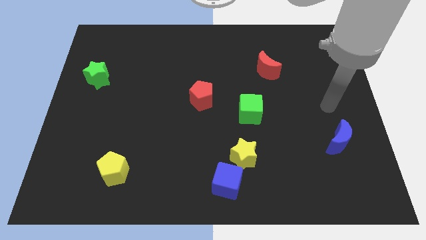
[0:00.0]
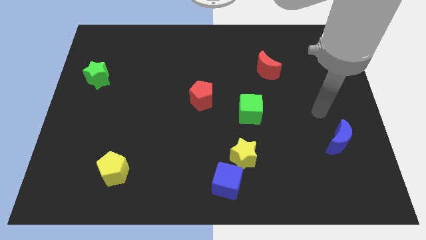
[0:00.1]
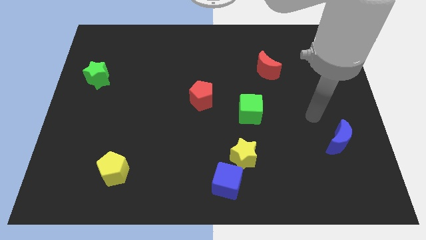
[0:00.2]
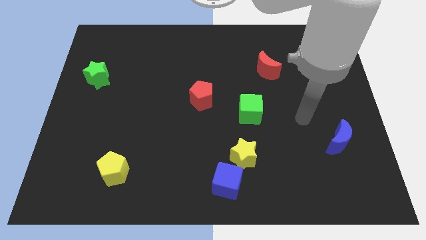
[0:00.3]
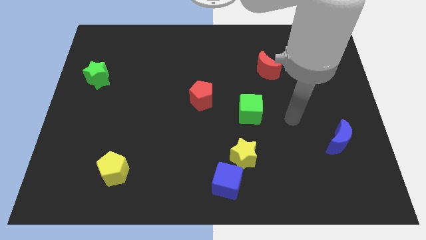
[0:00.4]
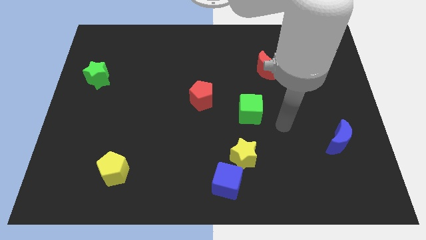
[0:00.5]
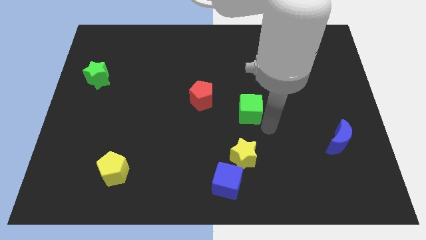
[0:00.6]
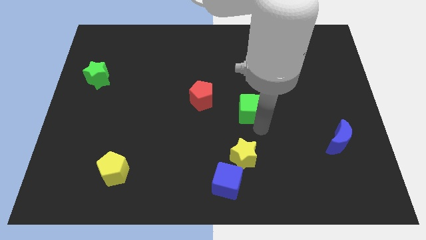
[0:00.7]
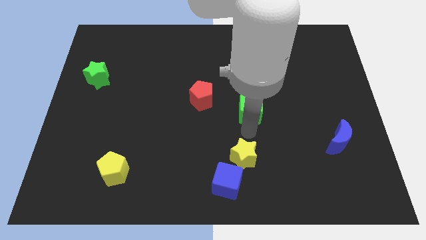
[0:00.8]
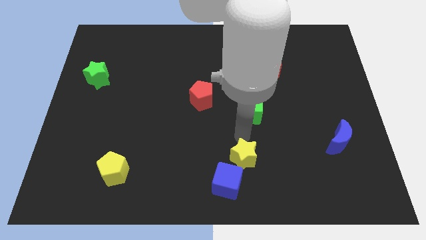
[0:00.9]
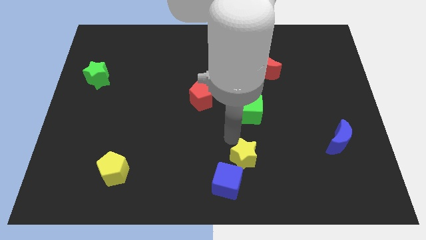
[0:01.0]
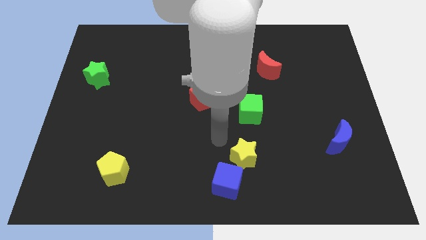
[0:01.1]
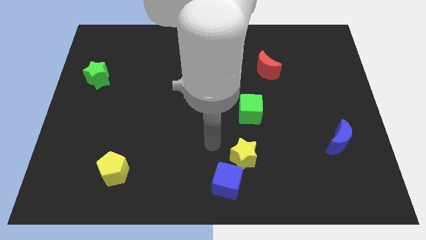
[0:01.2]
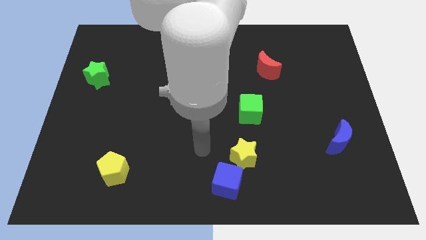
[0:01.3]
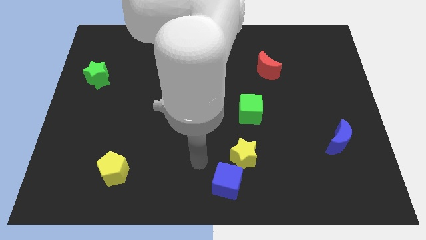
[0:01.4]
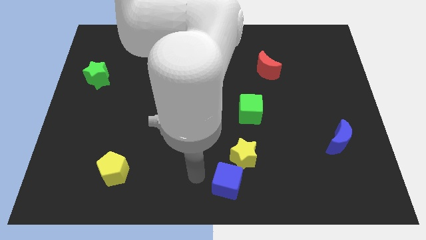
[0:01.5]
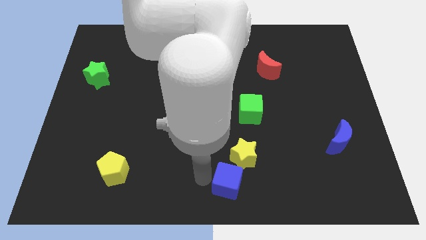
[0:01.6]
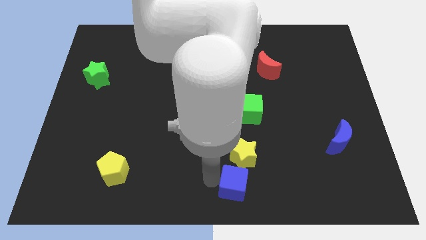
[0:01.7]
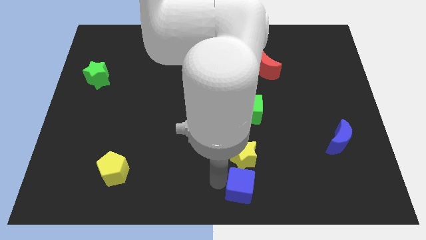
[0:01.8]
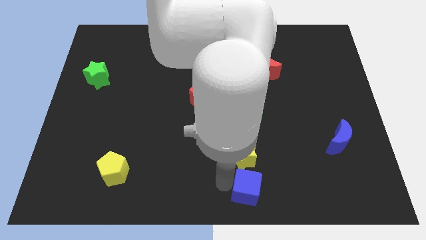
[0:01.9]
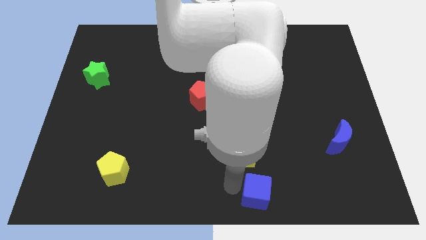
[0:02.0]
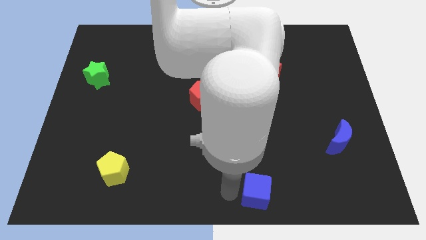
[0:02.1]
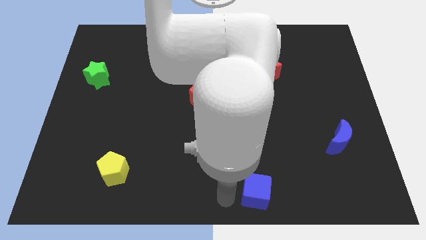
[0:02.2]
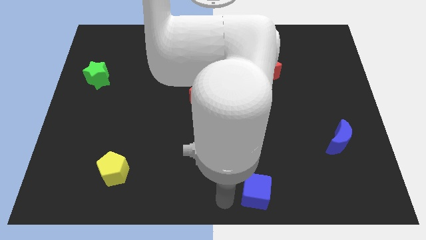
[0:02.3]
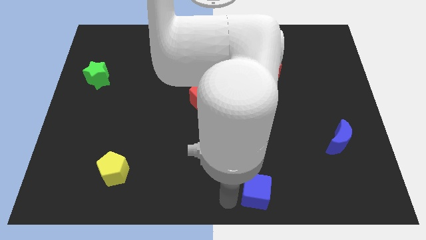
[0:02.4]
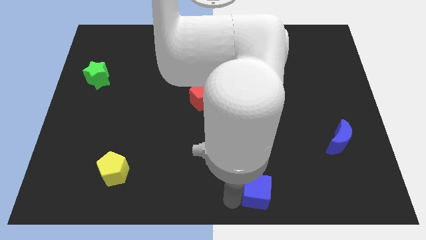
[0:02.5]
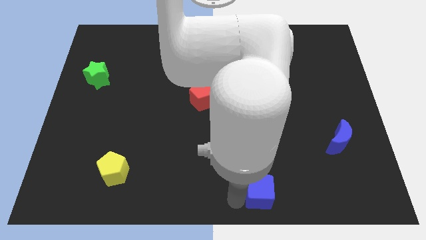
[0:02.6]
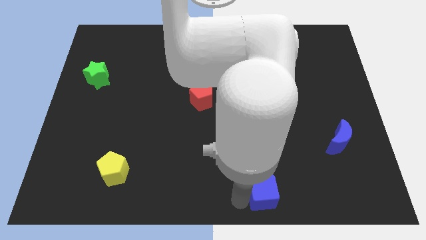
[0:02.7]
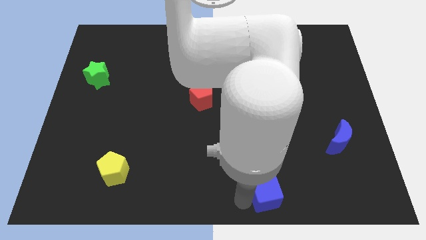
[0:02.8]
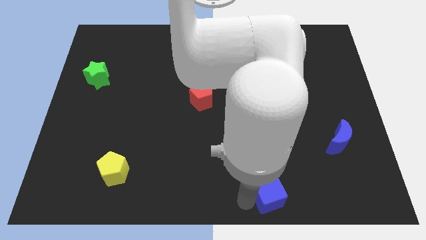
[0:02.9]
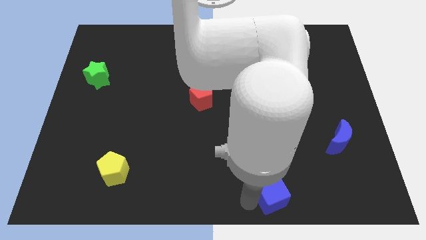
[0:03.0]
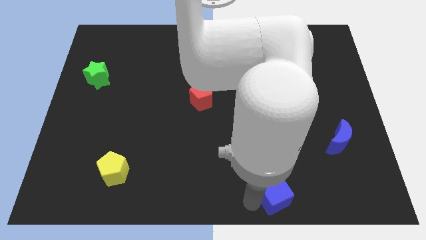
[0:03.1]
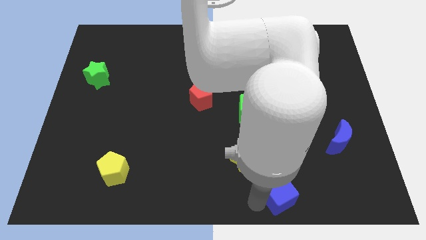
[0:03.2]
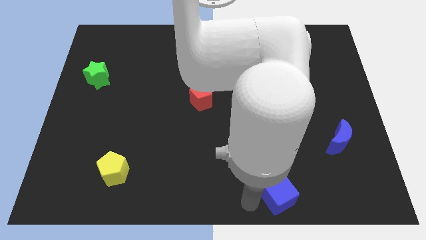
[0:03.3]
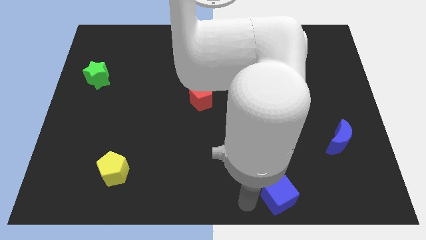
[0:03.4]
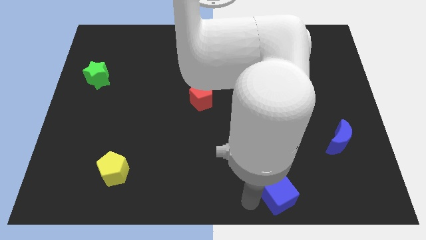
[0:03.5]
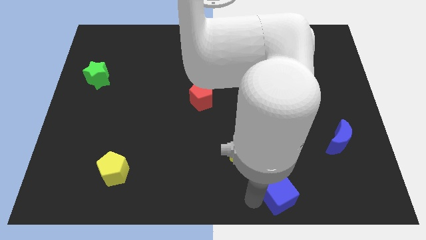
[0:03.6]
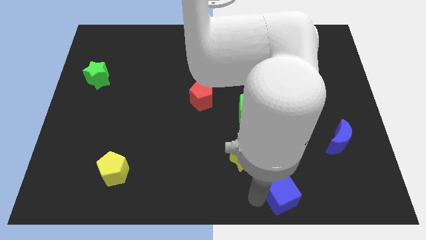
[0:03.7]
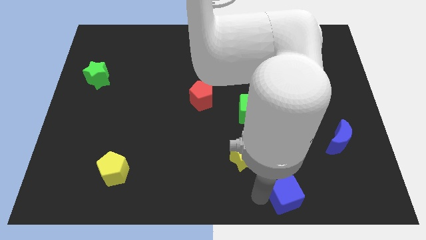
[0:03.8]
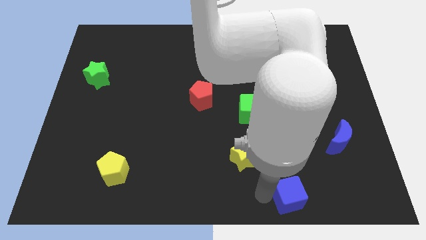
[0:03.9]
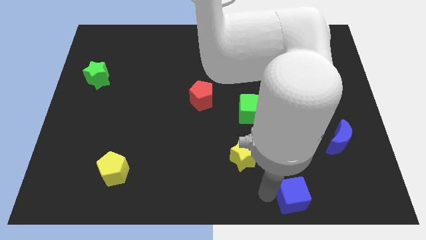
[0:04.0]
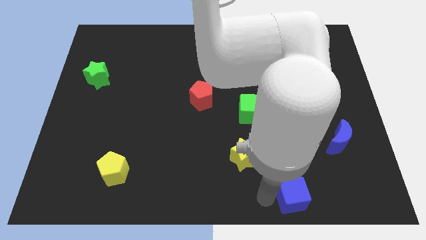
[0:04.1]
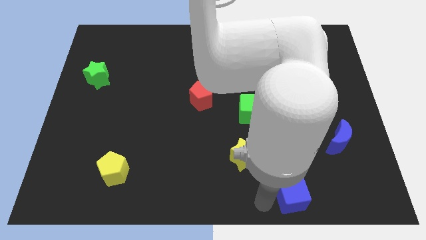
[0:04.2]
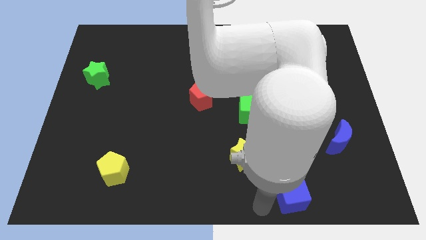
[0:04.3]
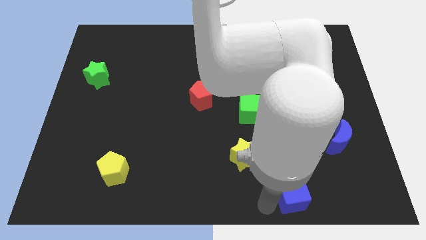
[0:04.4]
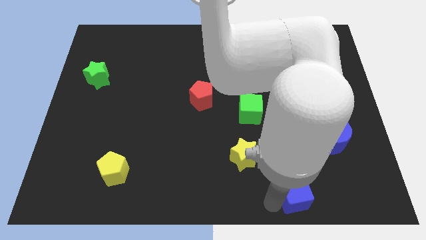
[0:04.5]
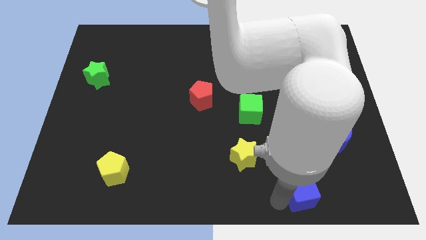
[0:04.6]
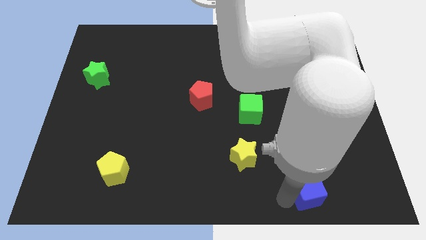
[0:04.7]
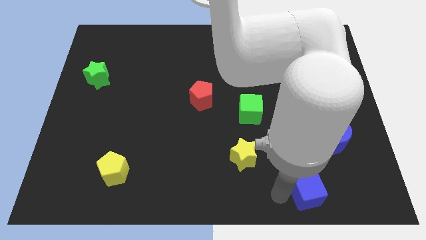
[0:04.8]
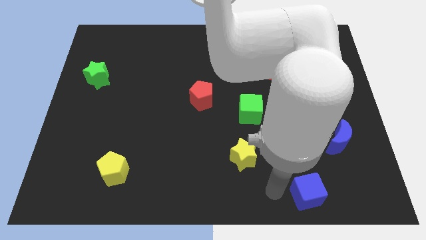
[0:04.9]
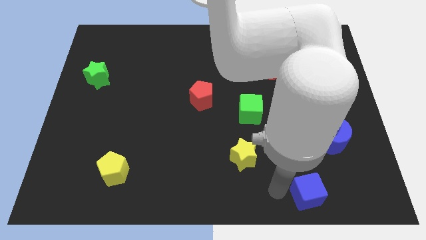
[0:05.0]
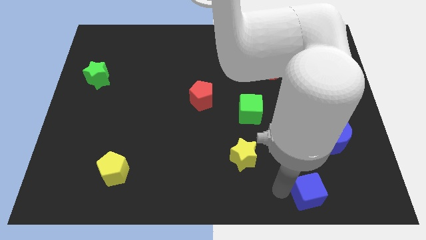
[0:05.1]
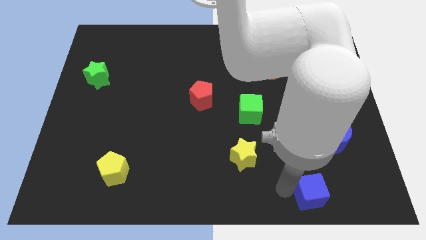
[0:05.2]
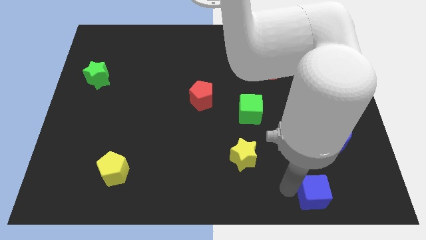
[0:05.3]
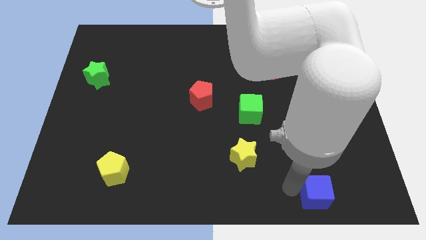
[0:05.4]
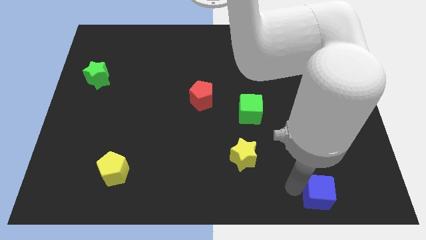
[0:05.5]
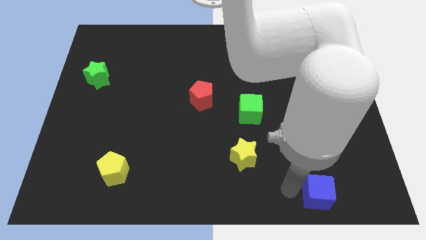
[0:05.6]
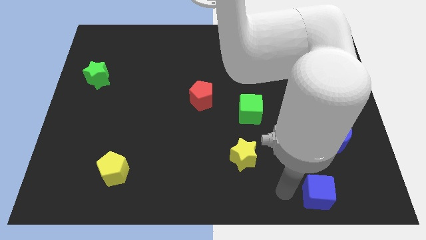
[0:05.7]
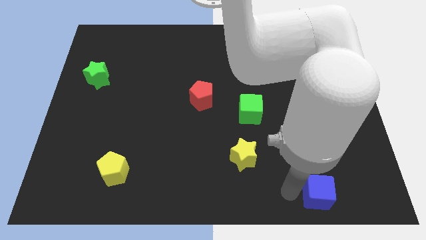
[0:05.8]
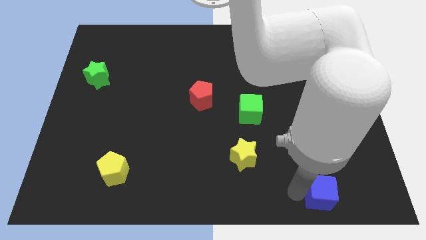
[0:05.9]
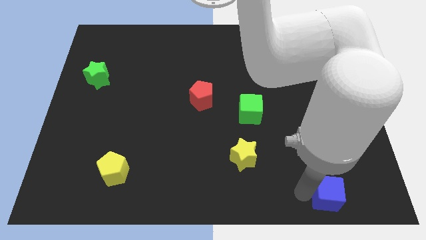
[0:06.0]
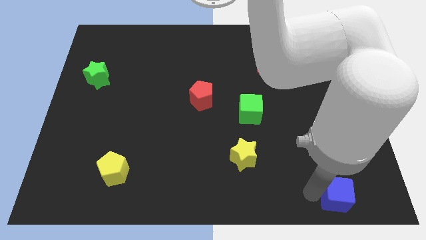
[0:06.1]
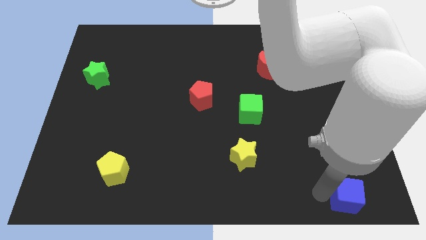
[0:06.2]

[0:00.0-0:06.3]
slide the blue cube to the bottom right

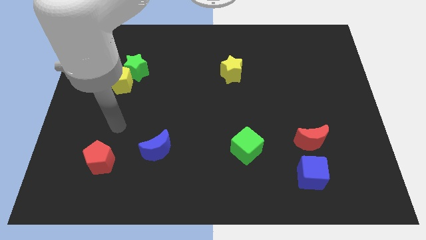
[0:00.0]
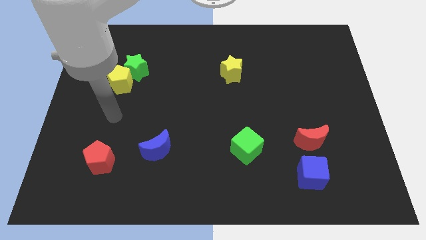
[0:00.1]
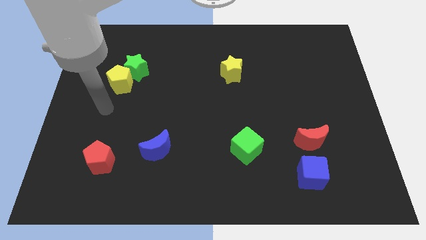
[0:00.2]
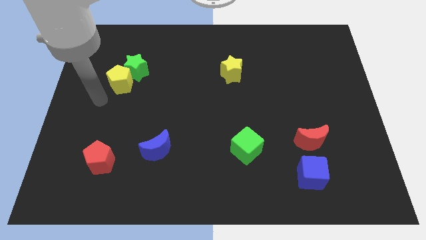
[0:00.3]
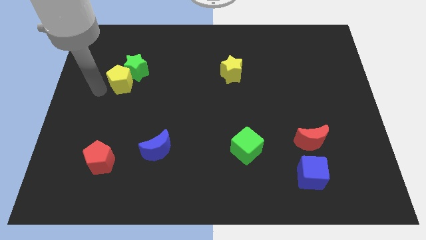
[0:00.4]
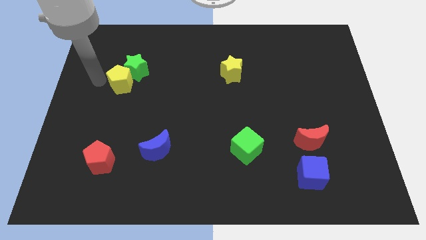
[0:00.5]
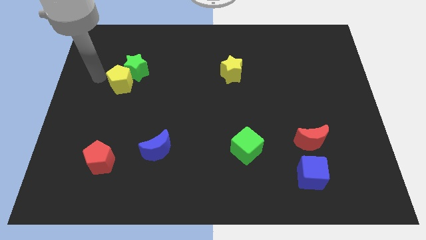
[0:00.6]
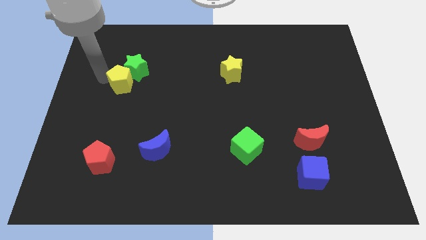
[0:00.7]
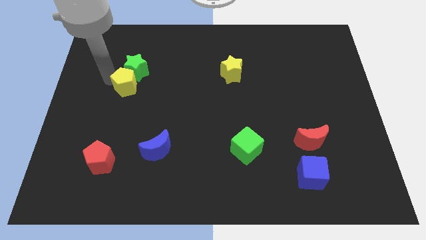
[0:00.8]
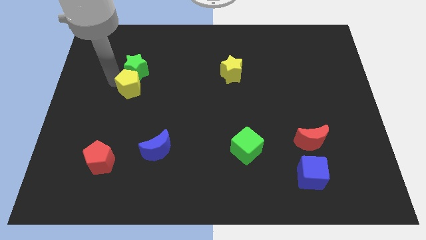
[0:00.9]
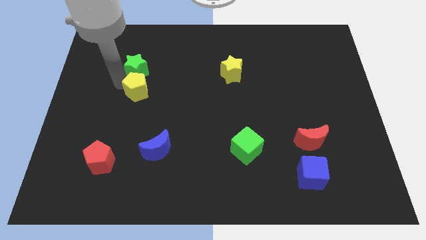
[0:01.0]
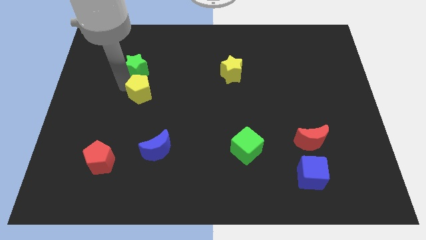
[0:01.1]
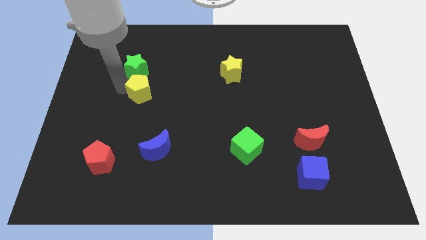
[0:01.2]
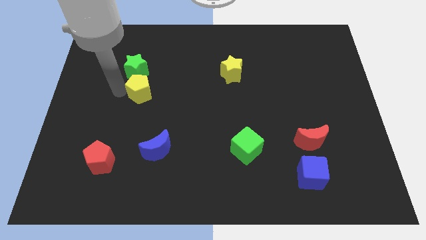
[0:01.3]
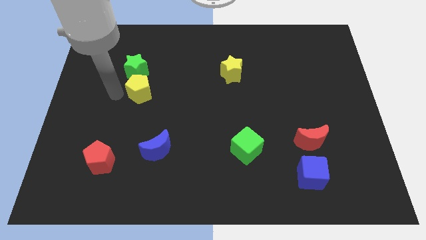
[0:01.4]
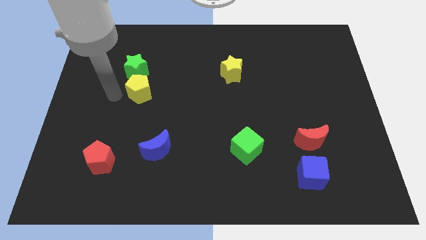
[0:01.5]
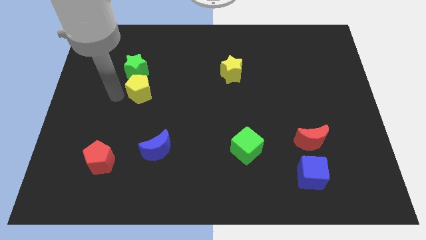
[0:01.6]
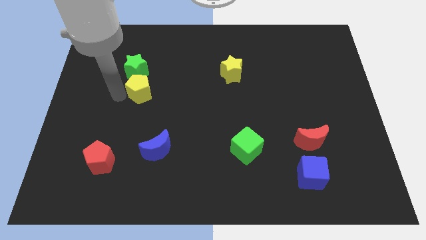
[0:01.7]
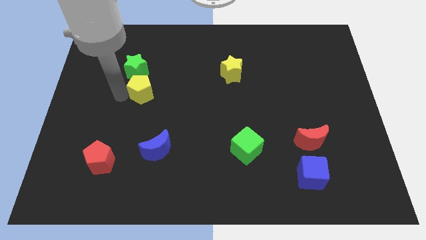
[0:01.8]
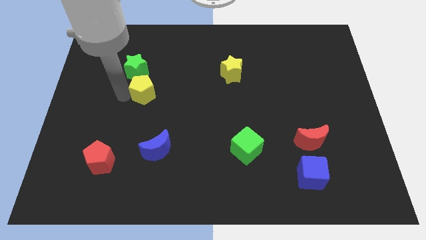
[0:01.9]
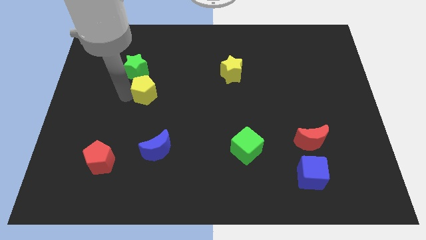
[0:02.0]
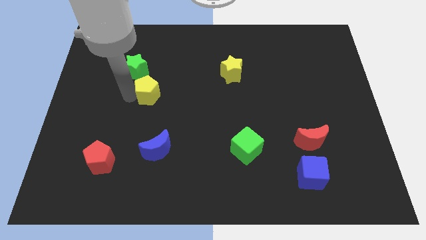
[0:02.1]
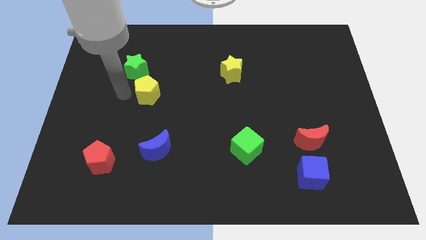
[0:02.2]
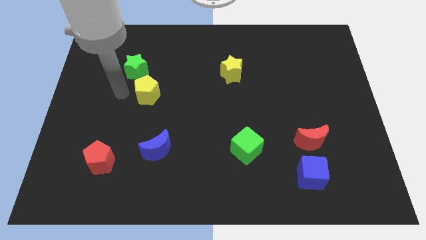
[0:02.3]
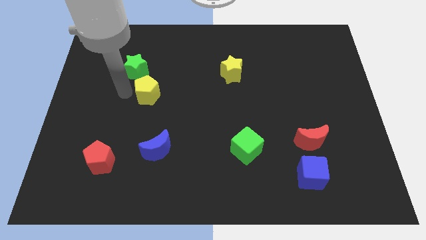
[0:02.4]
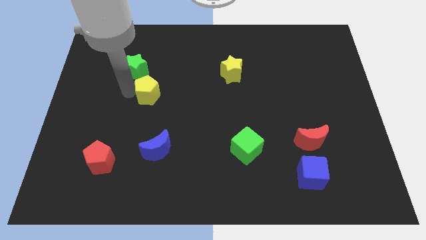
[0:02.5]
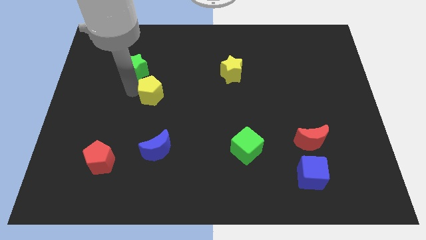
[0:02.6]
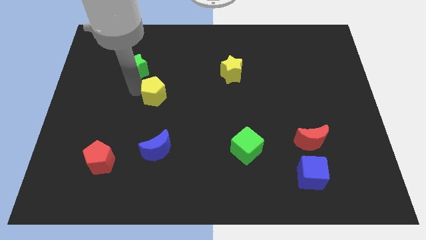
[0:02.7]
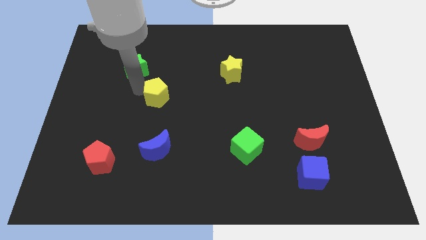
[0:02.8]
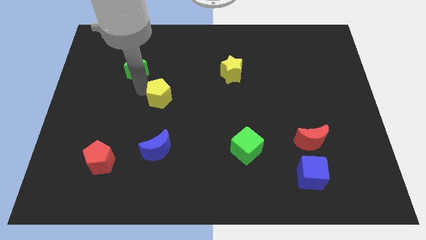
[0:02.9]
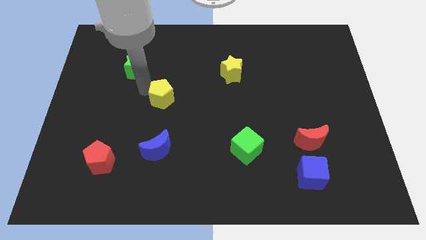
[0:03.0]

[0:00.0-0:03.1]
put the yellow pentagon to the middle
